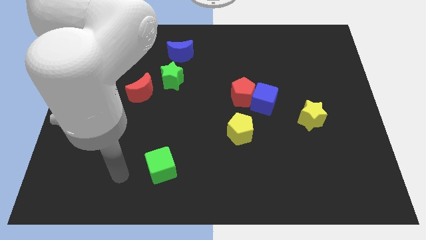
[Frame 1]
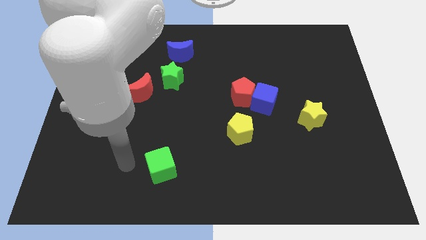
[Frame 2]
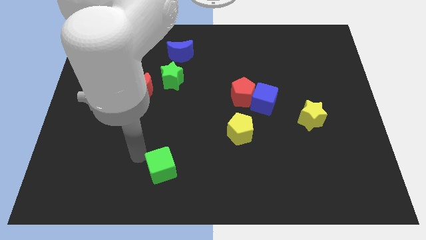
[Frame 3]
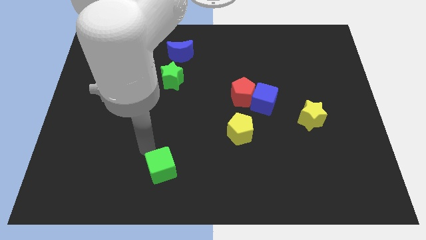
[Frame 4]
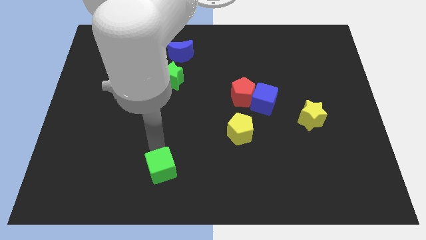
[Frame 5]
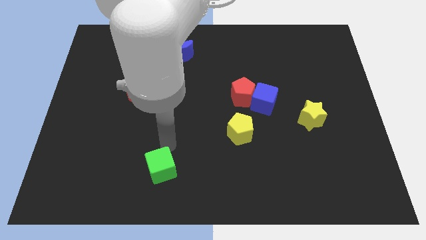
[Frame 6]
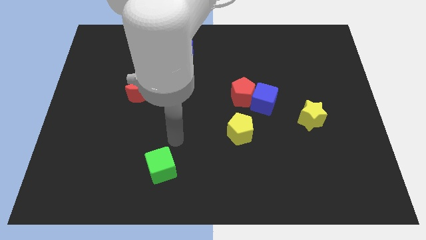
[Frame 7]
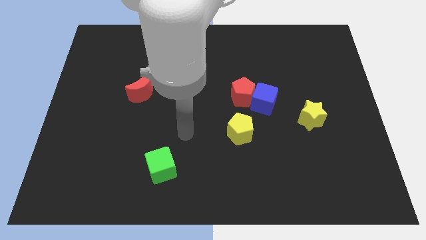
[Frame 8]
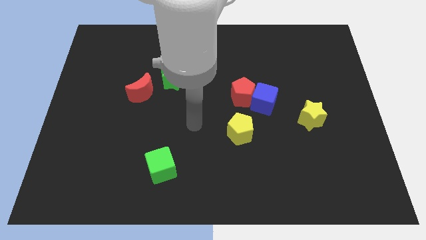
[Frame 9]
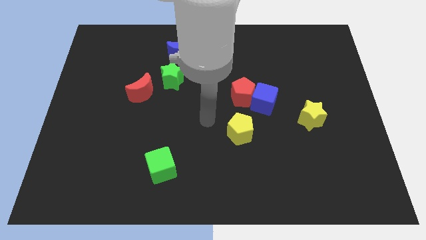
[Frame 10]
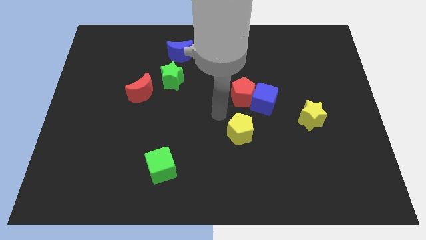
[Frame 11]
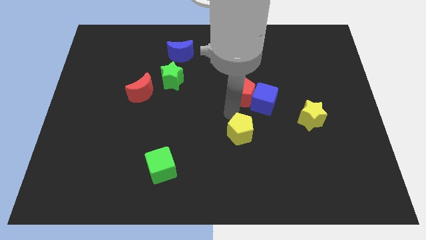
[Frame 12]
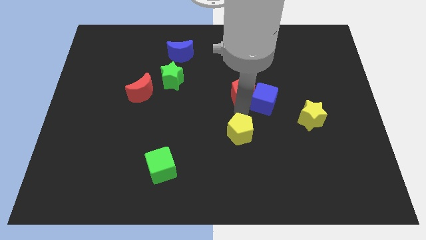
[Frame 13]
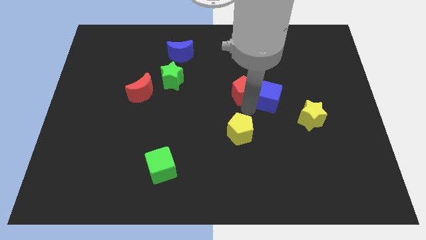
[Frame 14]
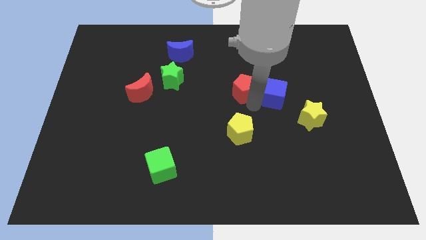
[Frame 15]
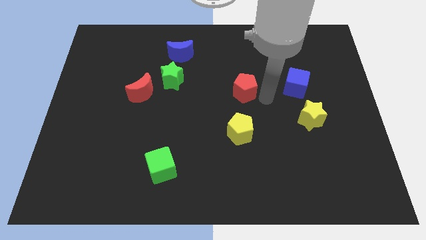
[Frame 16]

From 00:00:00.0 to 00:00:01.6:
move the red pentagon away from the blue cube

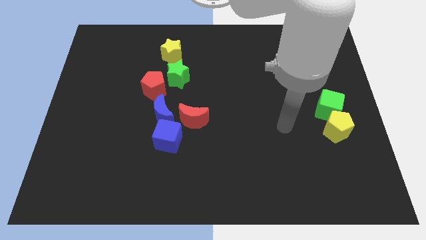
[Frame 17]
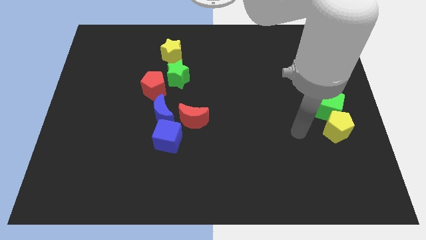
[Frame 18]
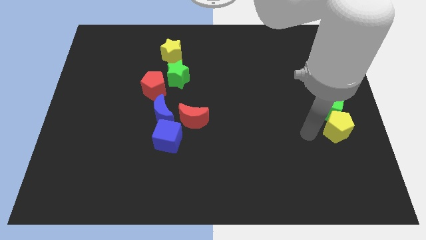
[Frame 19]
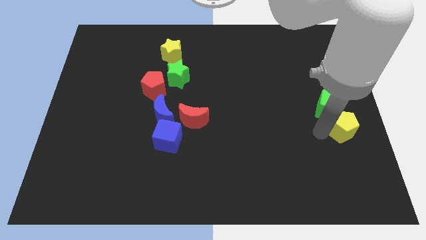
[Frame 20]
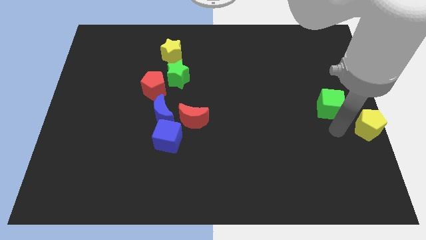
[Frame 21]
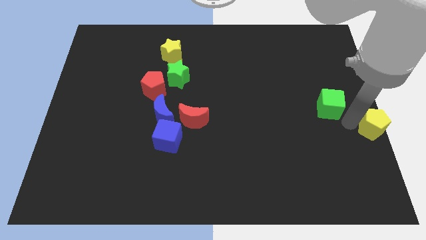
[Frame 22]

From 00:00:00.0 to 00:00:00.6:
separate the green cube from the yellow pentagon

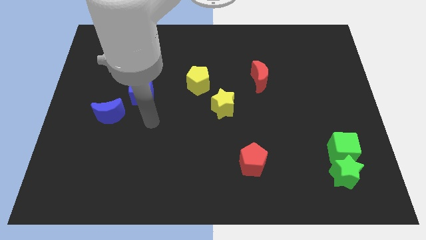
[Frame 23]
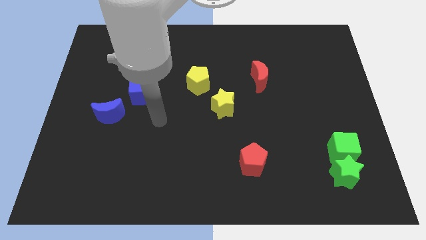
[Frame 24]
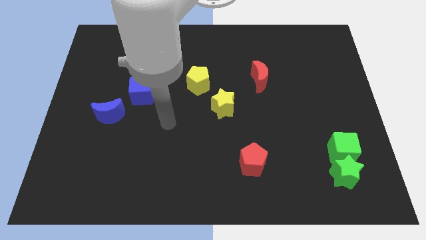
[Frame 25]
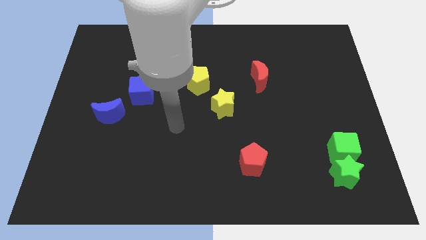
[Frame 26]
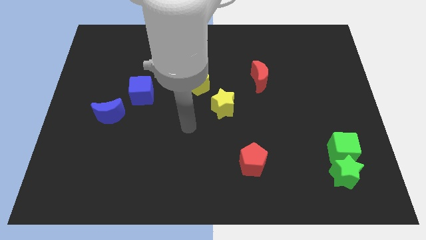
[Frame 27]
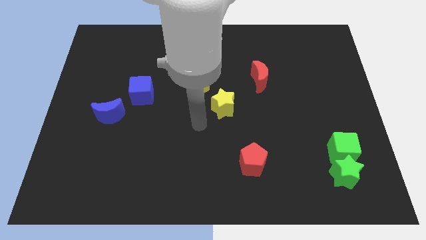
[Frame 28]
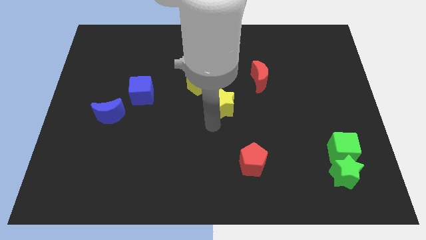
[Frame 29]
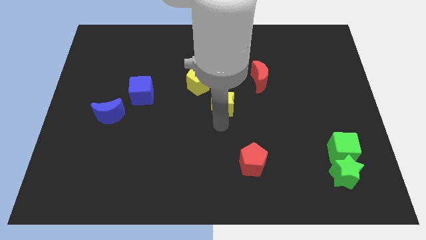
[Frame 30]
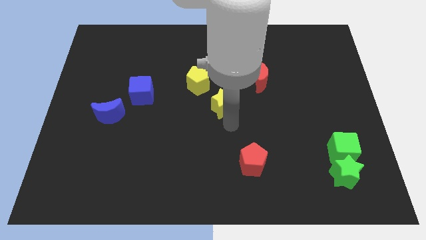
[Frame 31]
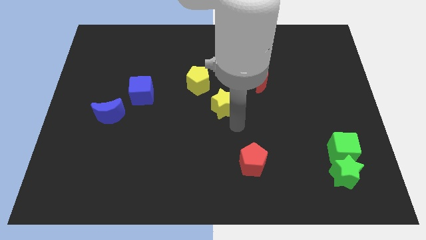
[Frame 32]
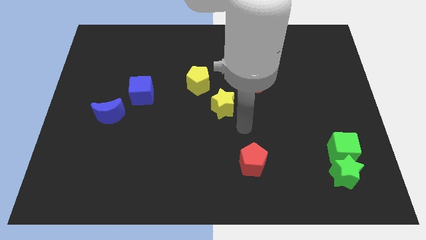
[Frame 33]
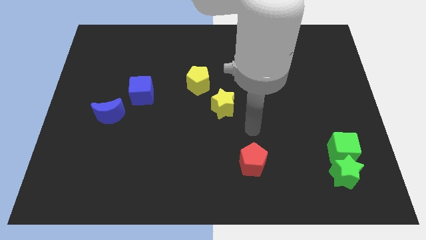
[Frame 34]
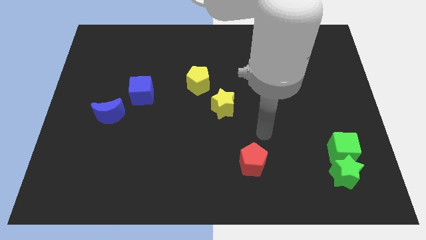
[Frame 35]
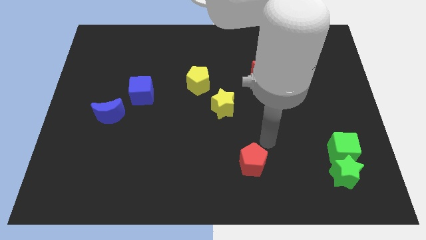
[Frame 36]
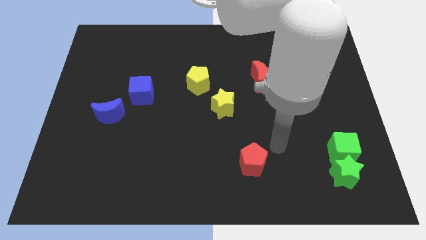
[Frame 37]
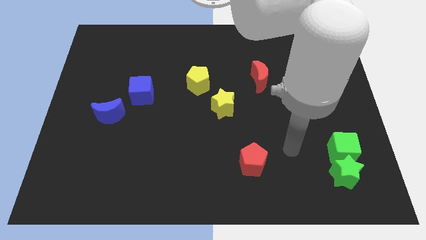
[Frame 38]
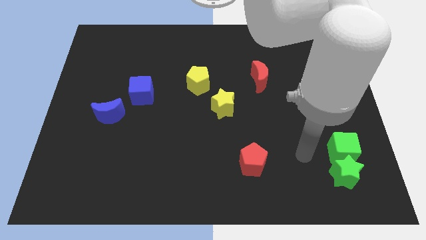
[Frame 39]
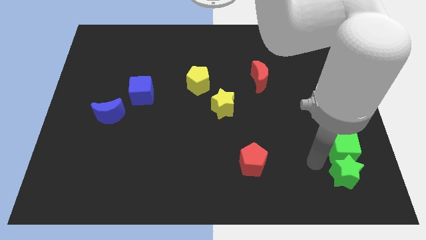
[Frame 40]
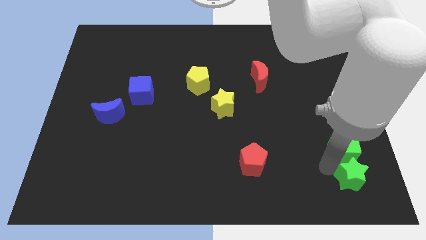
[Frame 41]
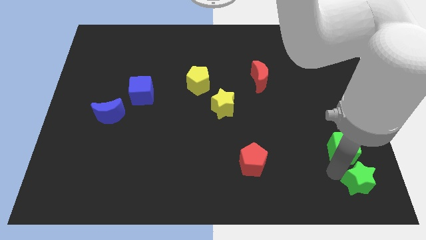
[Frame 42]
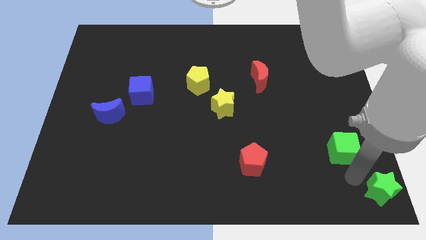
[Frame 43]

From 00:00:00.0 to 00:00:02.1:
pull the green cube apart from the green star

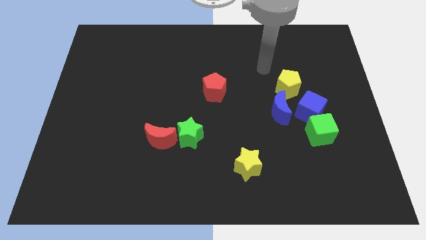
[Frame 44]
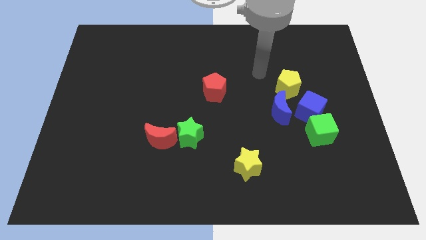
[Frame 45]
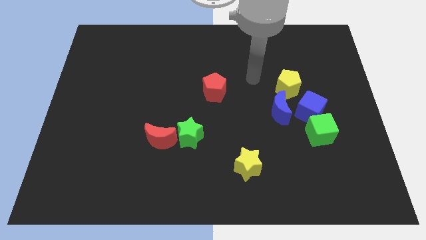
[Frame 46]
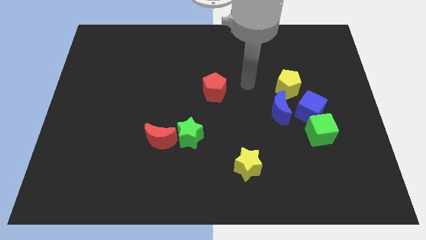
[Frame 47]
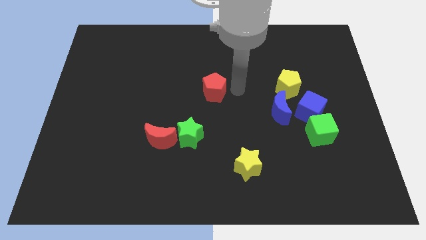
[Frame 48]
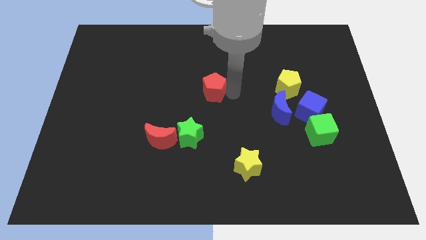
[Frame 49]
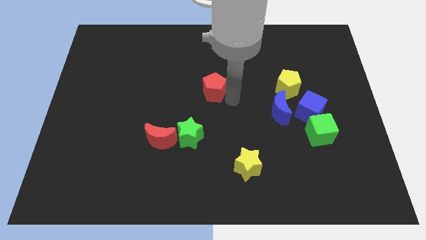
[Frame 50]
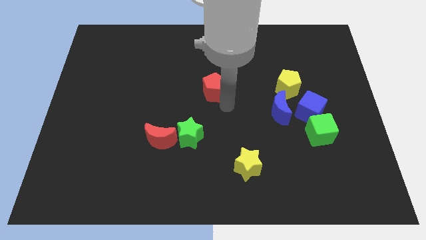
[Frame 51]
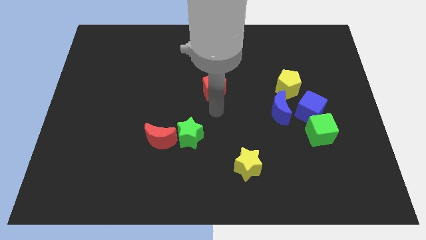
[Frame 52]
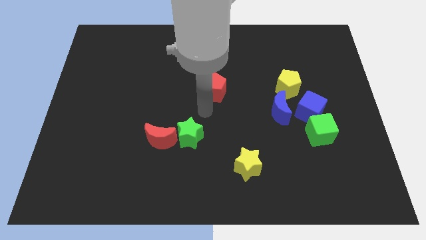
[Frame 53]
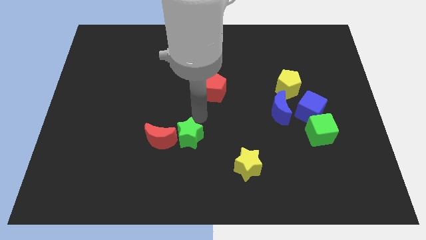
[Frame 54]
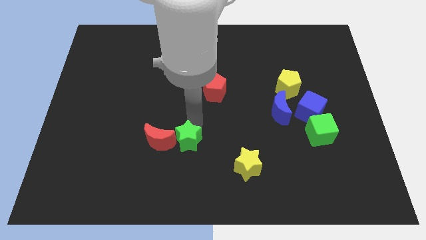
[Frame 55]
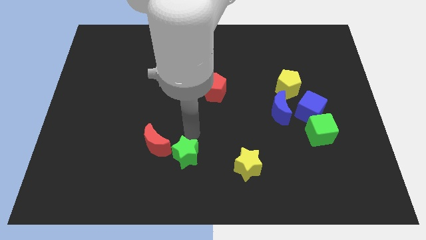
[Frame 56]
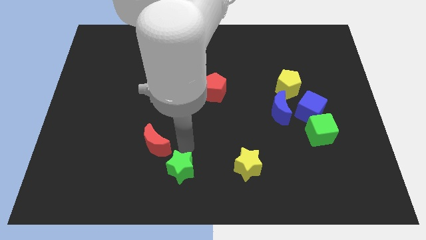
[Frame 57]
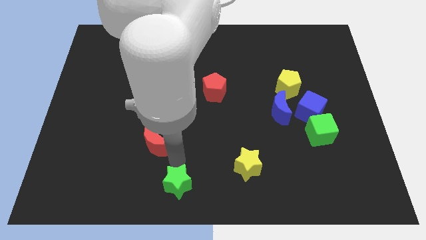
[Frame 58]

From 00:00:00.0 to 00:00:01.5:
move the red moon away from the green star

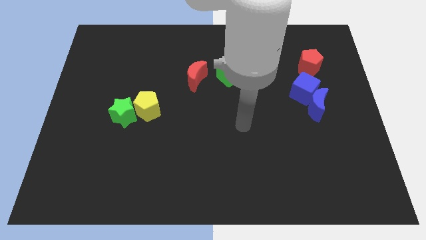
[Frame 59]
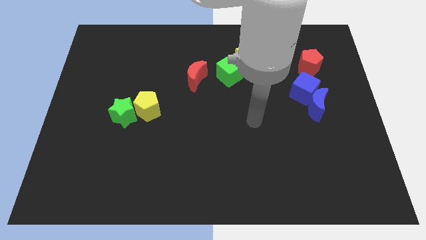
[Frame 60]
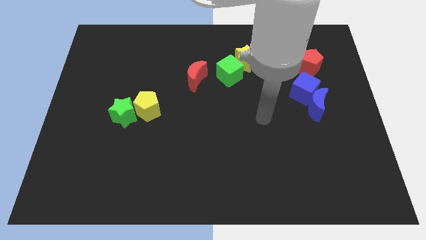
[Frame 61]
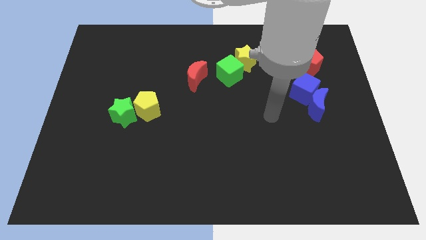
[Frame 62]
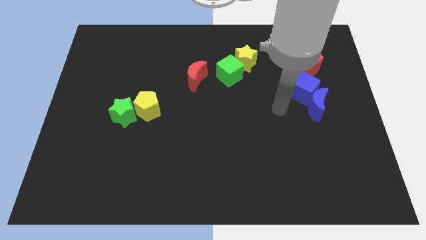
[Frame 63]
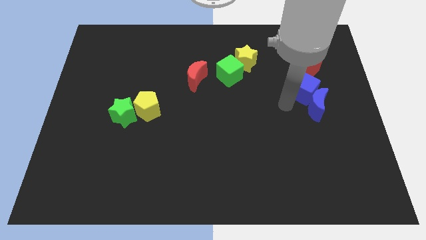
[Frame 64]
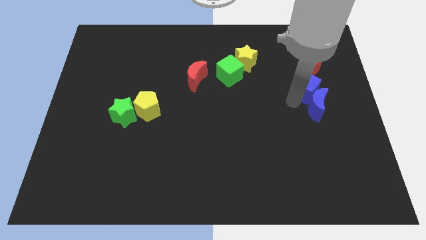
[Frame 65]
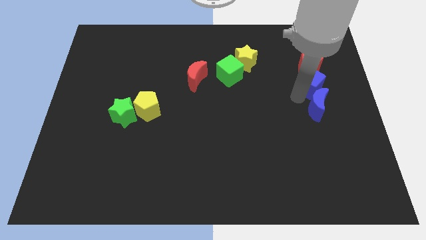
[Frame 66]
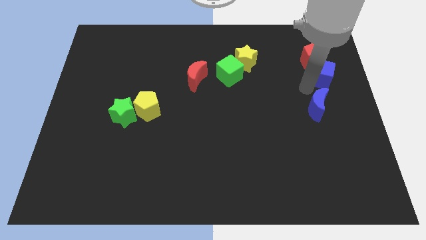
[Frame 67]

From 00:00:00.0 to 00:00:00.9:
move the blue moon away from the blue cube

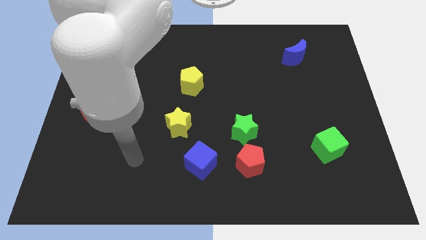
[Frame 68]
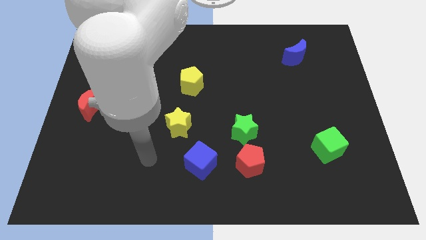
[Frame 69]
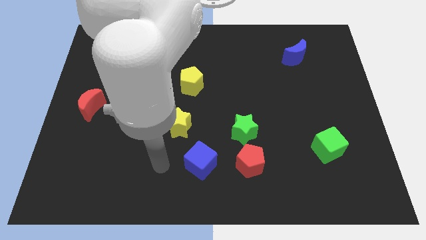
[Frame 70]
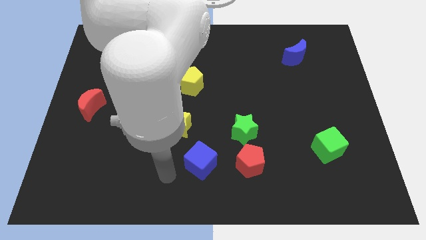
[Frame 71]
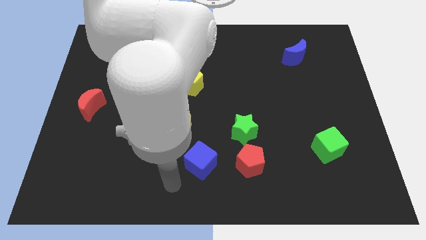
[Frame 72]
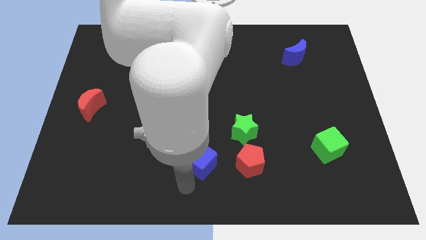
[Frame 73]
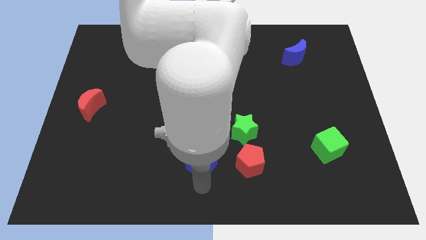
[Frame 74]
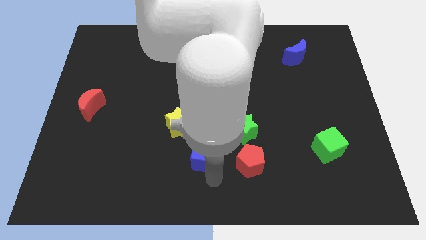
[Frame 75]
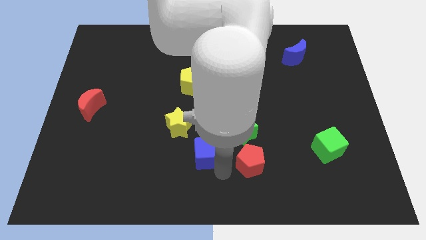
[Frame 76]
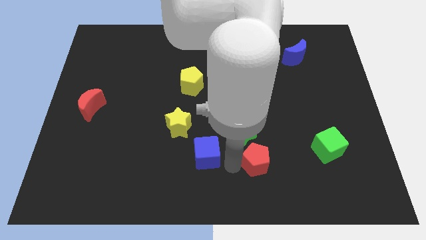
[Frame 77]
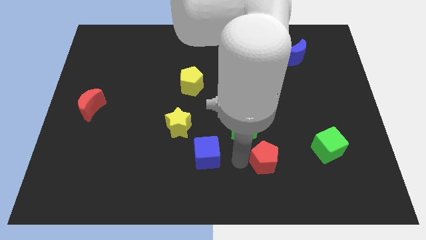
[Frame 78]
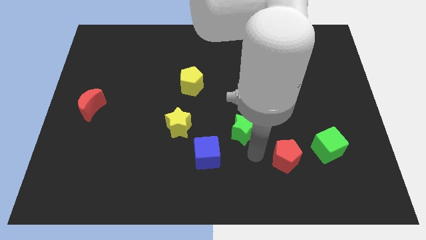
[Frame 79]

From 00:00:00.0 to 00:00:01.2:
separate the green star from the red pentagon

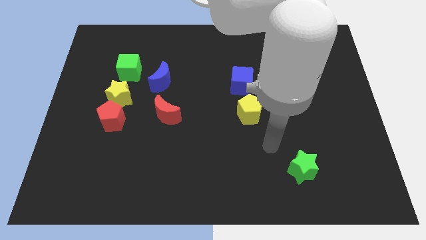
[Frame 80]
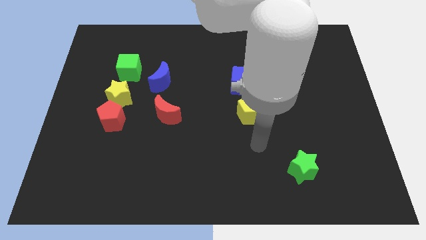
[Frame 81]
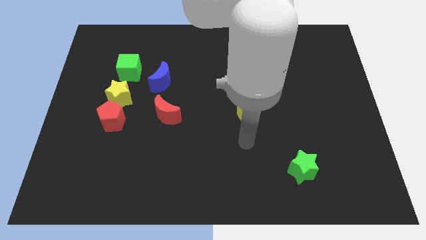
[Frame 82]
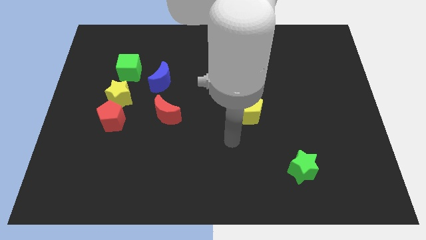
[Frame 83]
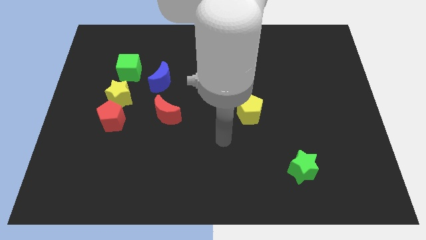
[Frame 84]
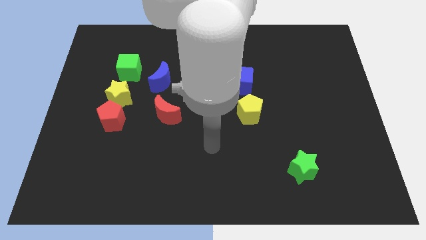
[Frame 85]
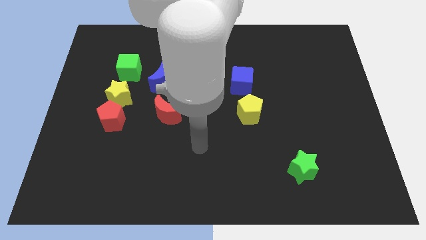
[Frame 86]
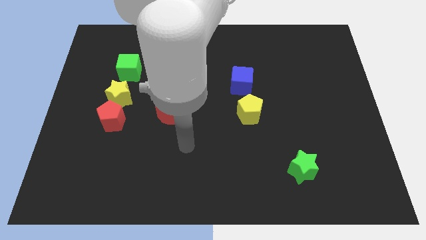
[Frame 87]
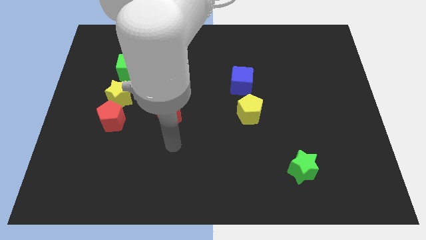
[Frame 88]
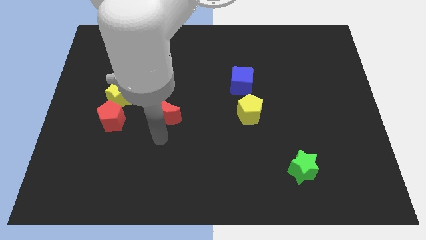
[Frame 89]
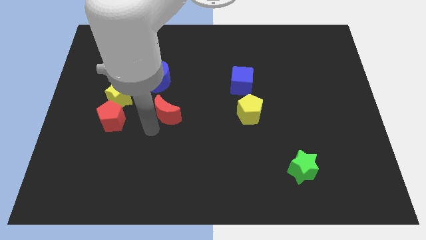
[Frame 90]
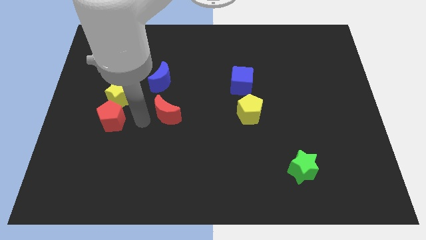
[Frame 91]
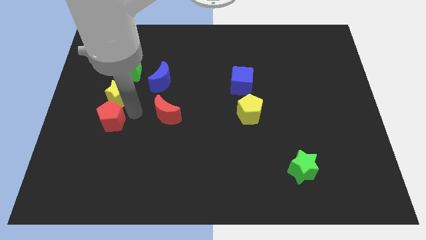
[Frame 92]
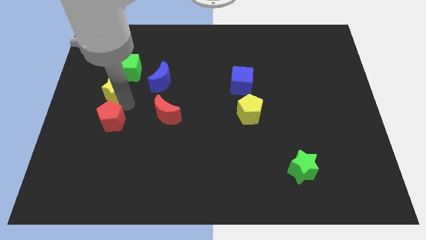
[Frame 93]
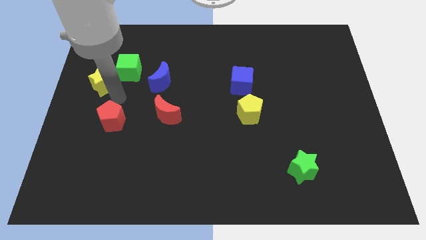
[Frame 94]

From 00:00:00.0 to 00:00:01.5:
move the red pentagon away from the yellow star
